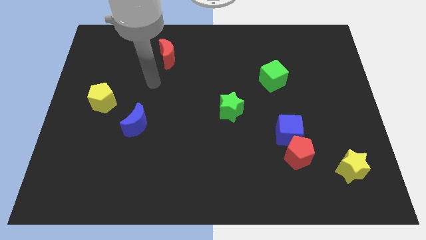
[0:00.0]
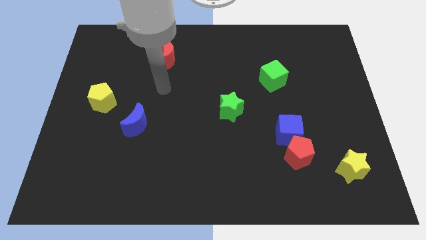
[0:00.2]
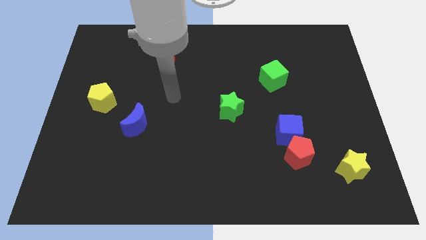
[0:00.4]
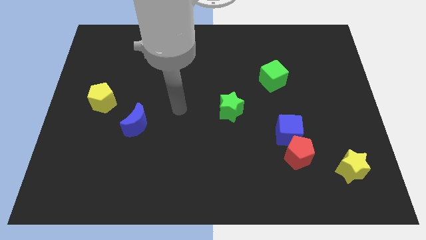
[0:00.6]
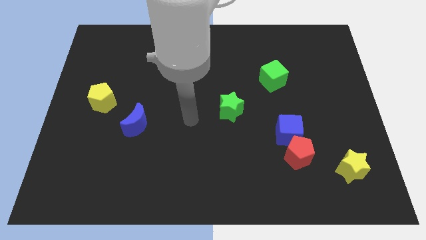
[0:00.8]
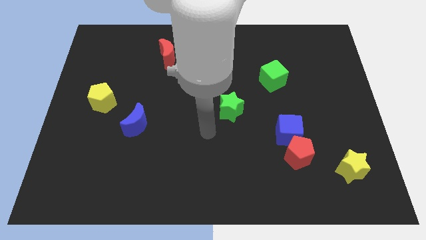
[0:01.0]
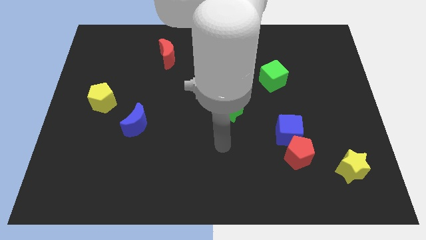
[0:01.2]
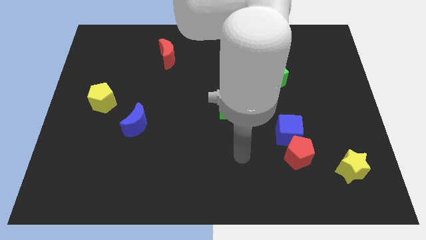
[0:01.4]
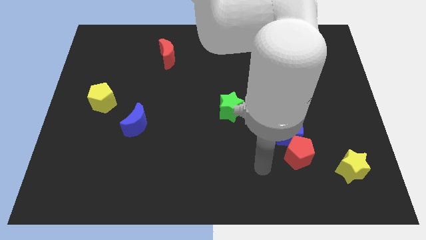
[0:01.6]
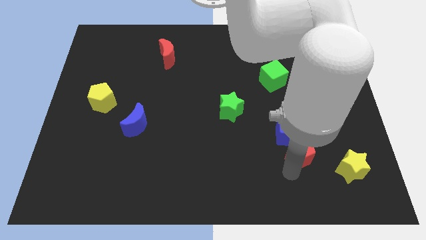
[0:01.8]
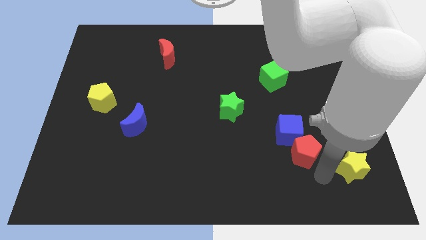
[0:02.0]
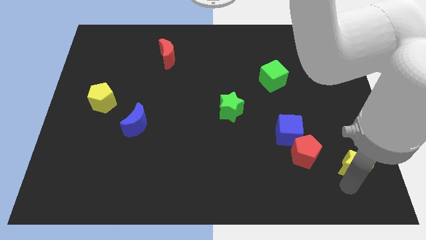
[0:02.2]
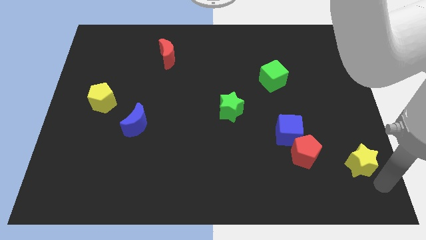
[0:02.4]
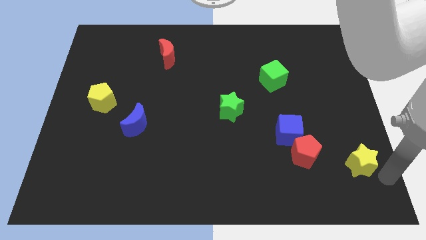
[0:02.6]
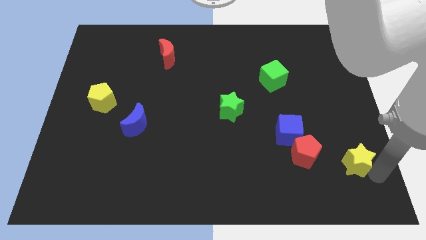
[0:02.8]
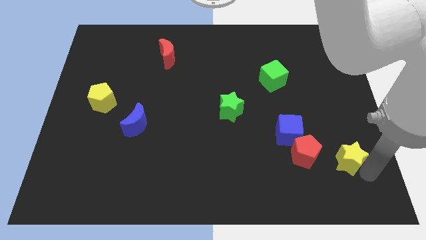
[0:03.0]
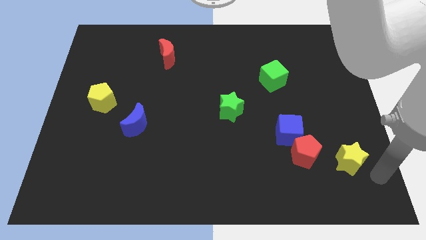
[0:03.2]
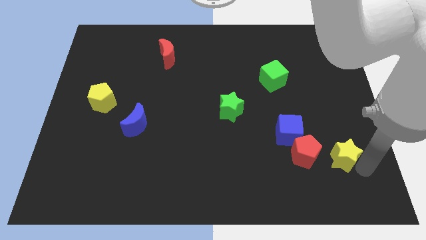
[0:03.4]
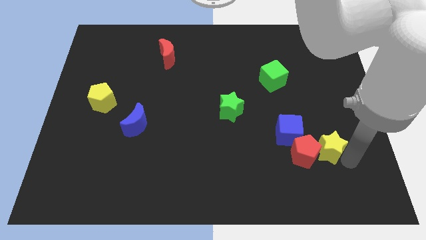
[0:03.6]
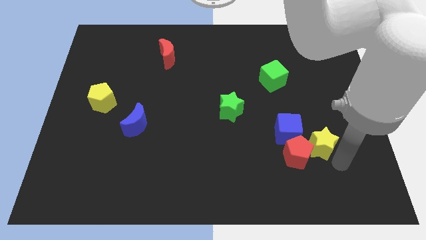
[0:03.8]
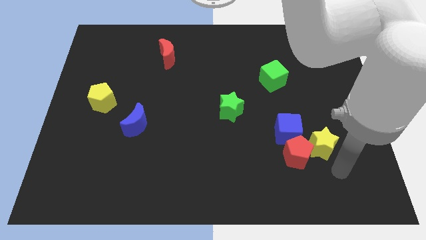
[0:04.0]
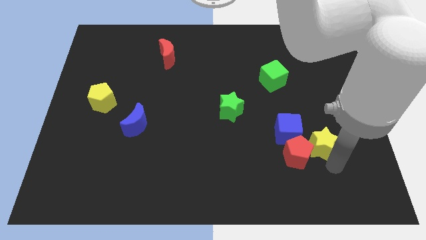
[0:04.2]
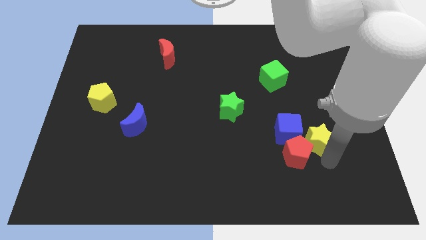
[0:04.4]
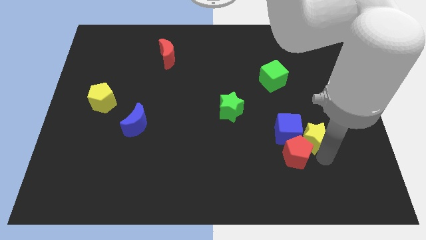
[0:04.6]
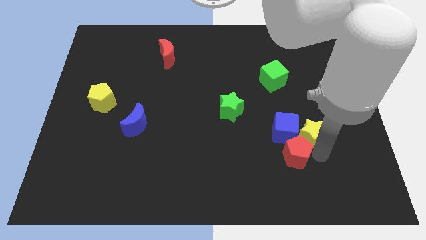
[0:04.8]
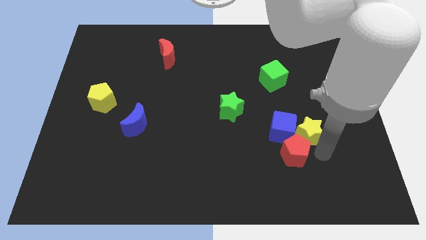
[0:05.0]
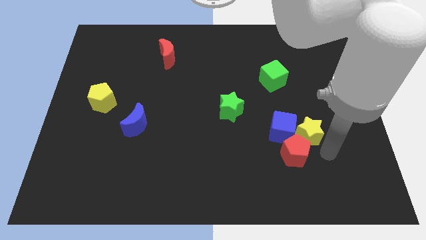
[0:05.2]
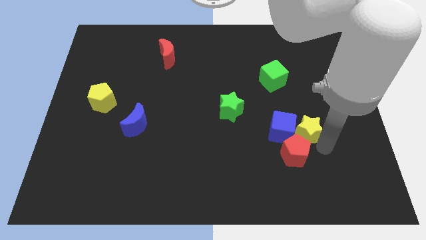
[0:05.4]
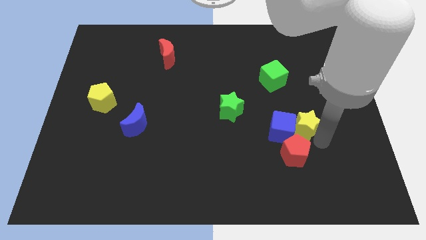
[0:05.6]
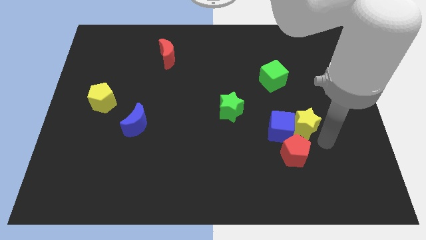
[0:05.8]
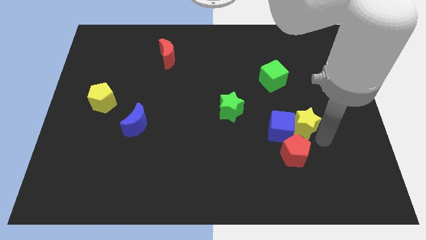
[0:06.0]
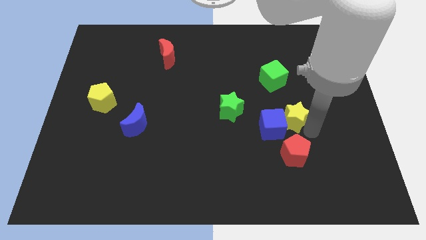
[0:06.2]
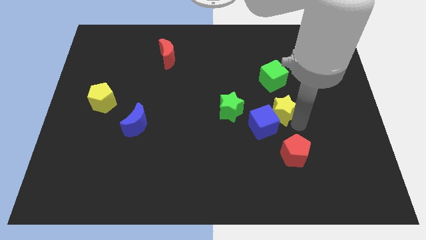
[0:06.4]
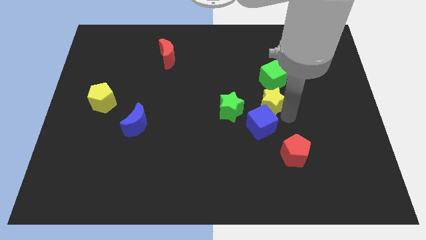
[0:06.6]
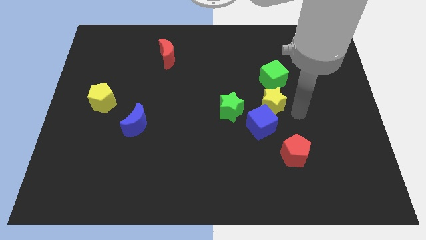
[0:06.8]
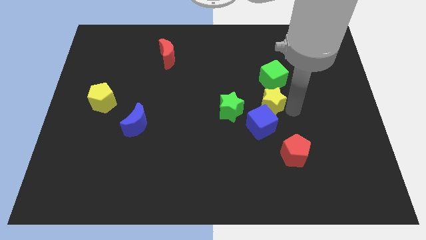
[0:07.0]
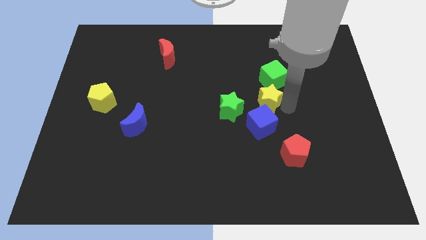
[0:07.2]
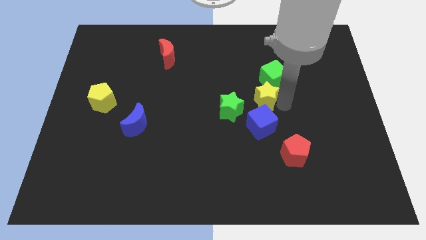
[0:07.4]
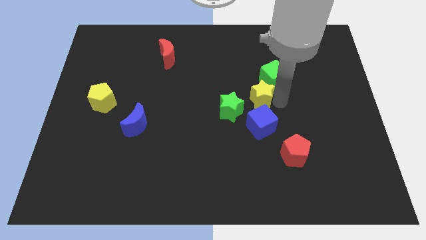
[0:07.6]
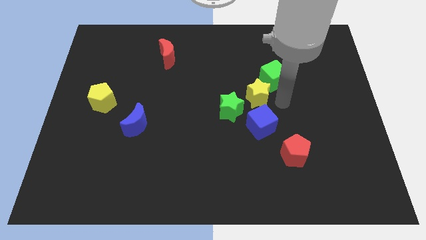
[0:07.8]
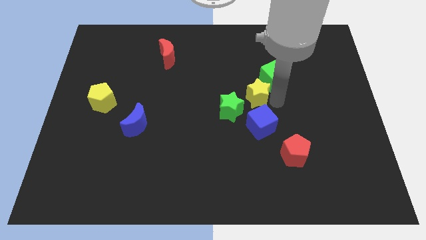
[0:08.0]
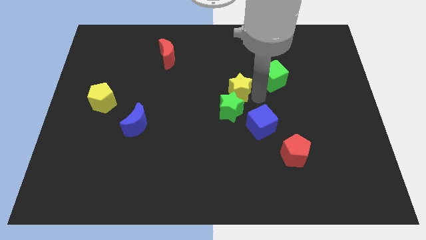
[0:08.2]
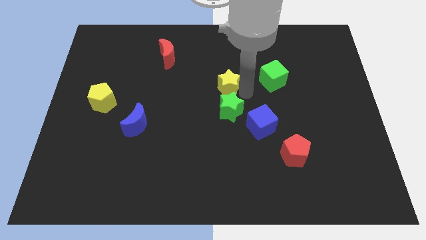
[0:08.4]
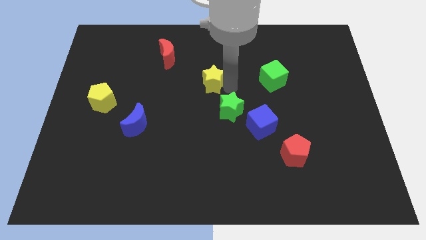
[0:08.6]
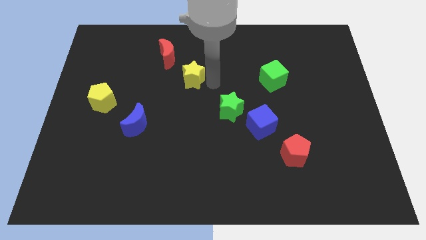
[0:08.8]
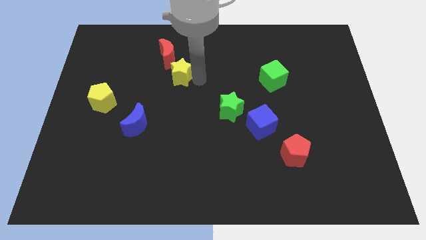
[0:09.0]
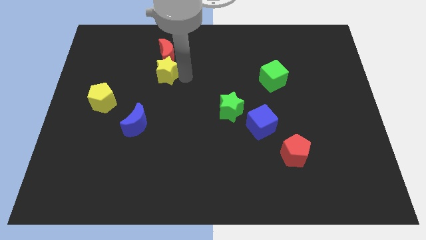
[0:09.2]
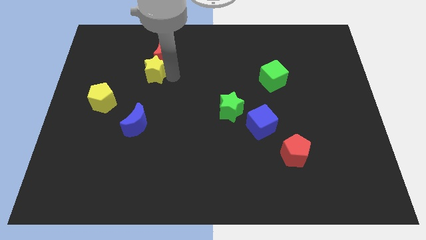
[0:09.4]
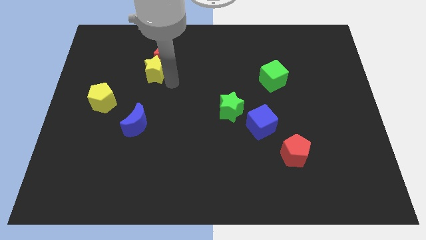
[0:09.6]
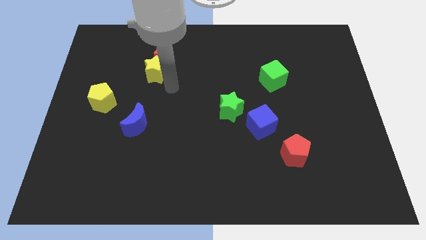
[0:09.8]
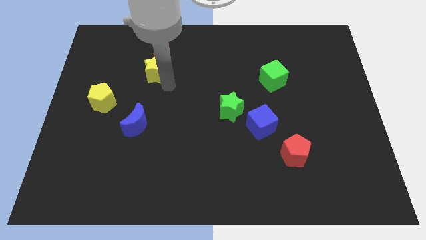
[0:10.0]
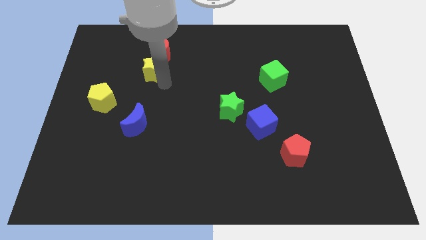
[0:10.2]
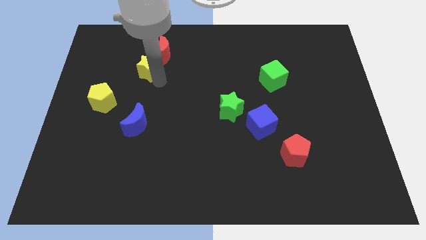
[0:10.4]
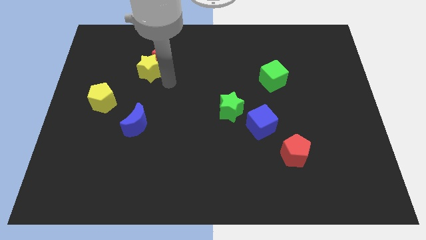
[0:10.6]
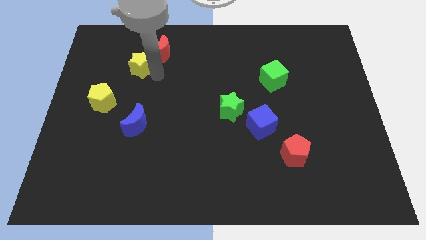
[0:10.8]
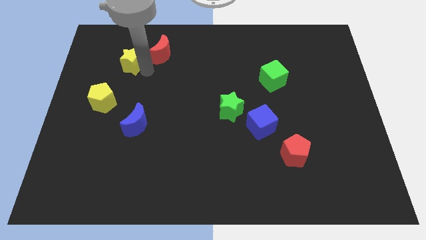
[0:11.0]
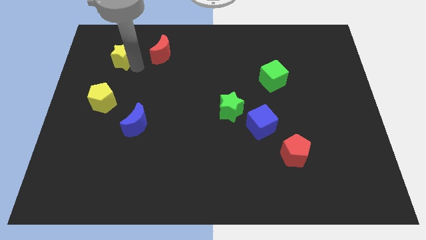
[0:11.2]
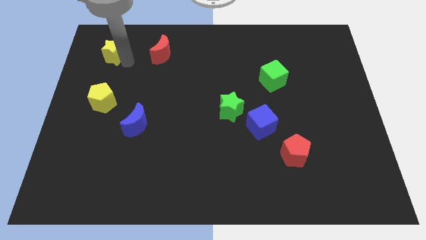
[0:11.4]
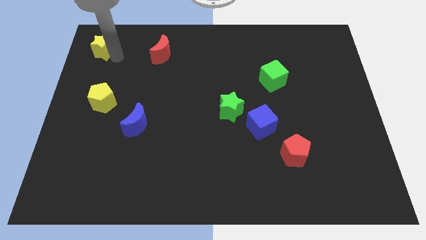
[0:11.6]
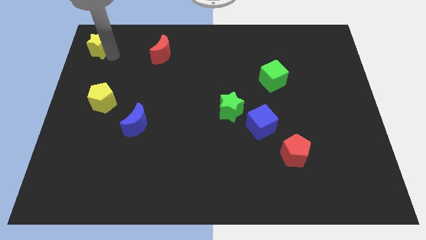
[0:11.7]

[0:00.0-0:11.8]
put the yellow star to the top left corner

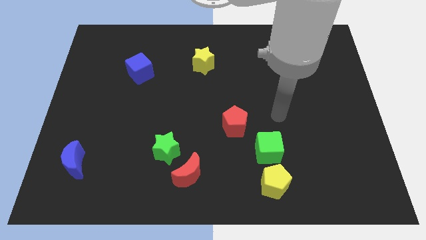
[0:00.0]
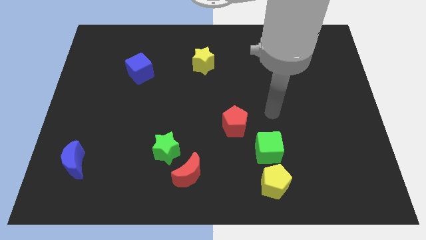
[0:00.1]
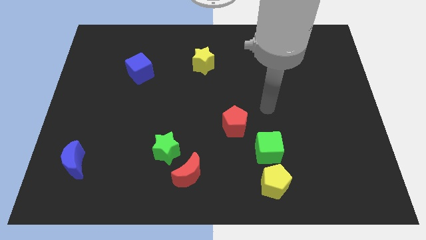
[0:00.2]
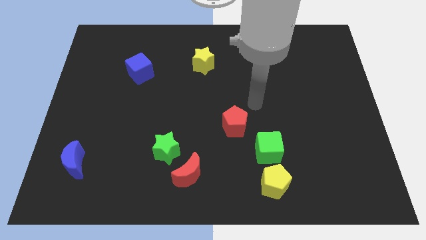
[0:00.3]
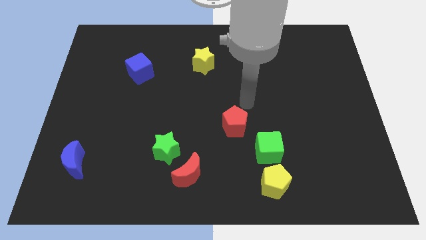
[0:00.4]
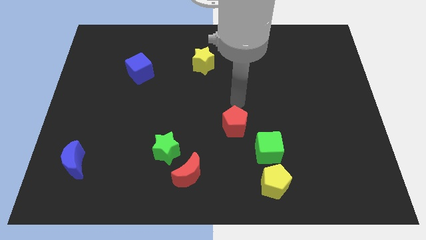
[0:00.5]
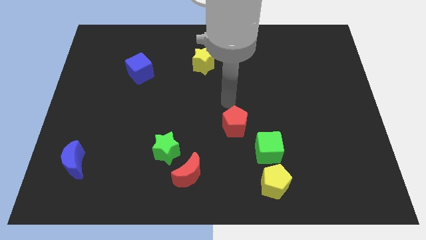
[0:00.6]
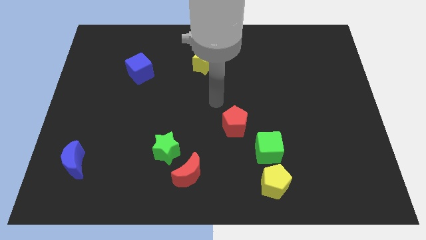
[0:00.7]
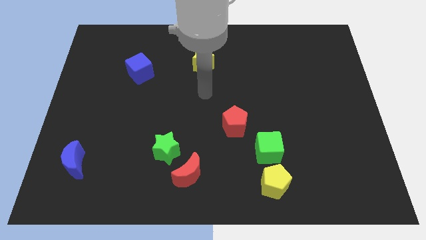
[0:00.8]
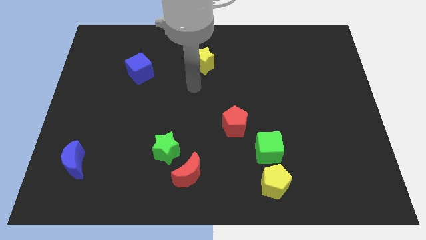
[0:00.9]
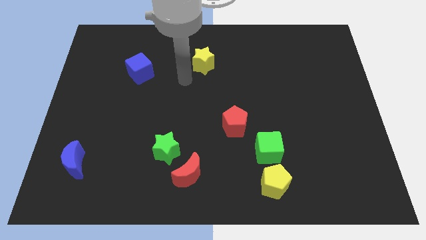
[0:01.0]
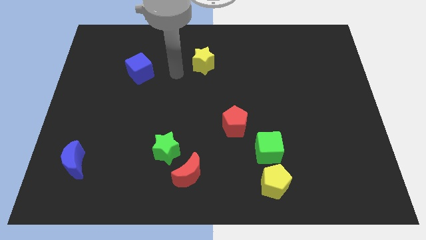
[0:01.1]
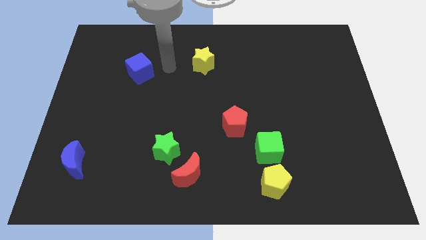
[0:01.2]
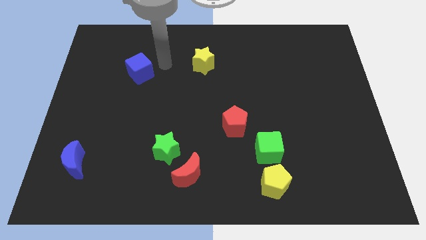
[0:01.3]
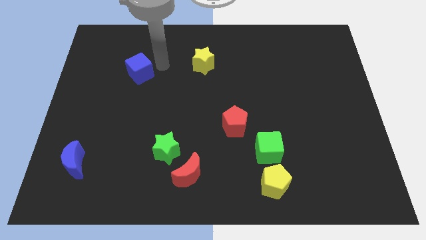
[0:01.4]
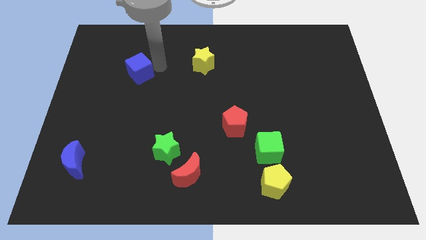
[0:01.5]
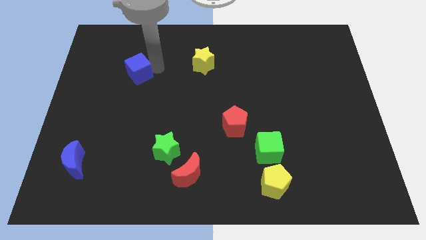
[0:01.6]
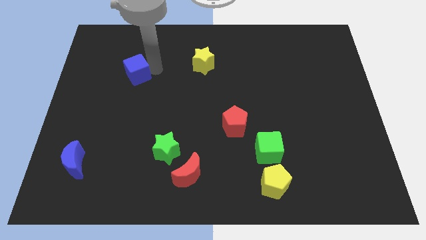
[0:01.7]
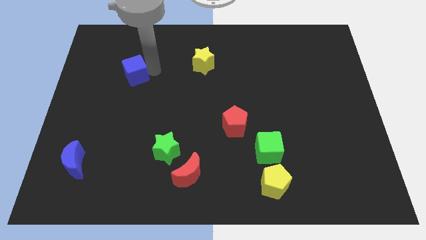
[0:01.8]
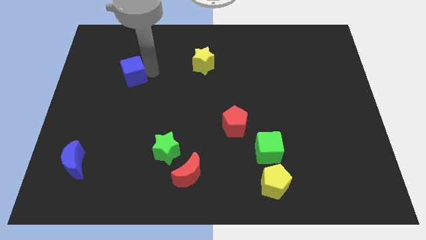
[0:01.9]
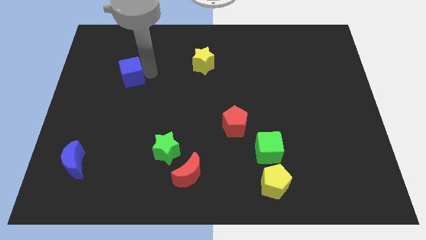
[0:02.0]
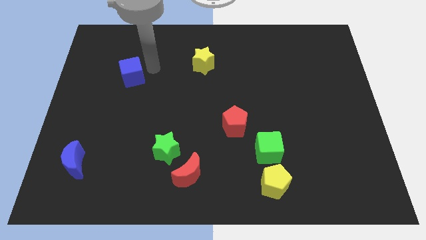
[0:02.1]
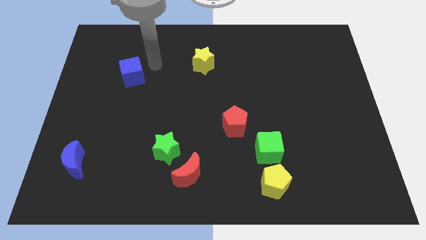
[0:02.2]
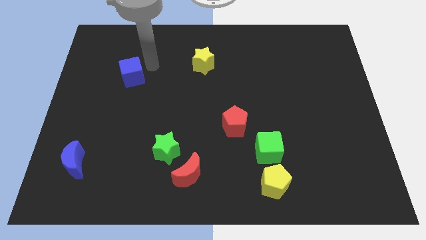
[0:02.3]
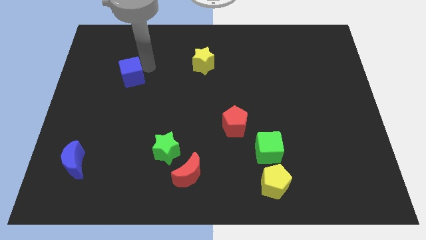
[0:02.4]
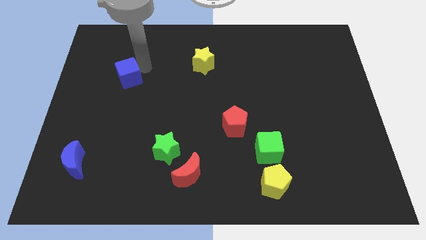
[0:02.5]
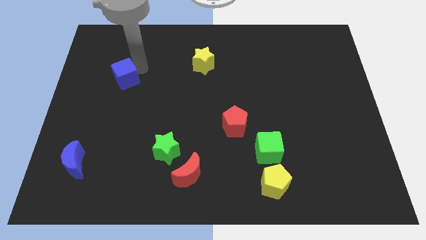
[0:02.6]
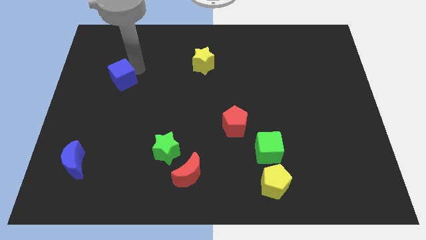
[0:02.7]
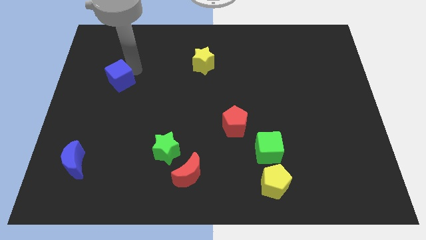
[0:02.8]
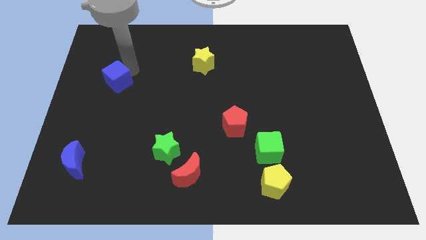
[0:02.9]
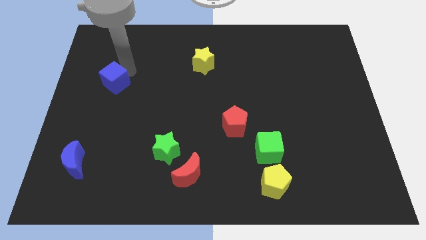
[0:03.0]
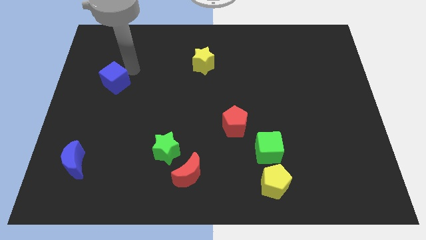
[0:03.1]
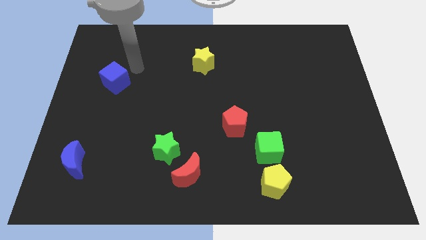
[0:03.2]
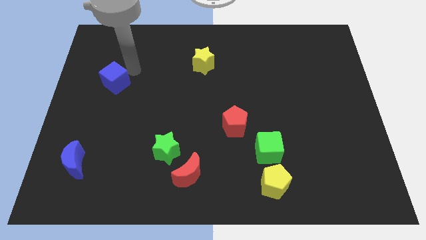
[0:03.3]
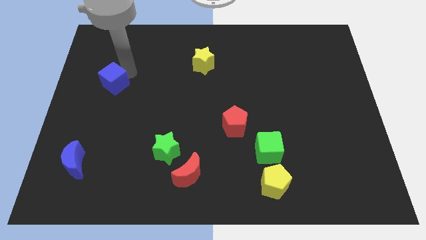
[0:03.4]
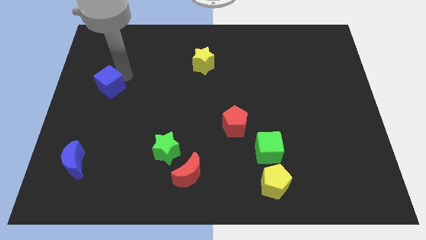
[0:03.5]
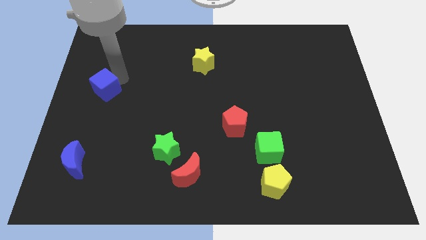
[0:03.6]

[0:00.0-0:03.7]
slide the blue cube to the left side
